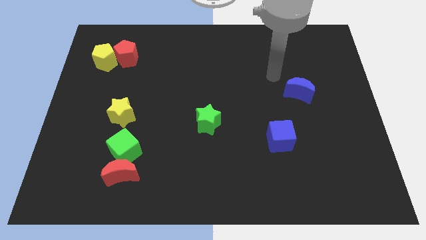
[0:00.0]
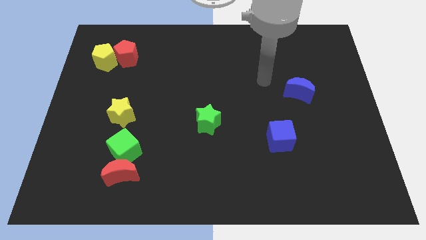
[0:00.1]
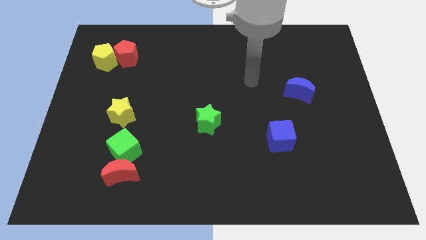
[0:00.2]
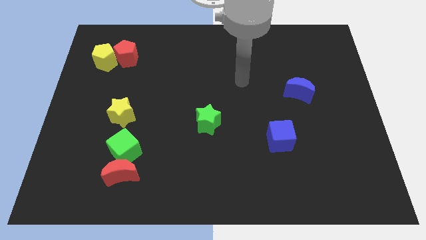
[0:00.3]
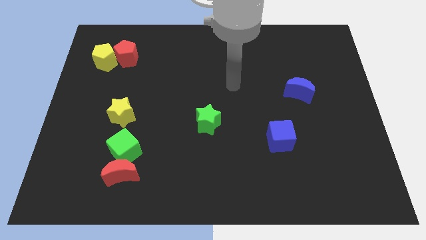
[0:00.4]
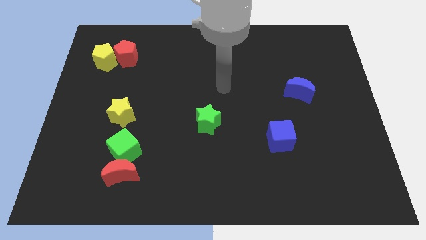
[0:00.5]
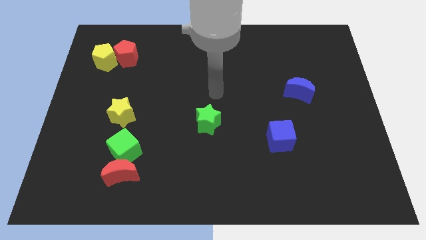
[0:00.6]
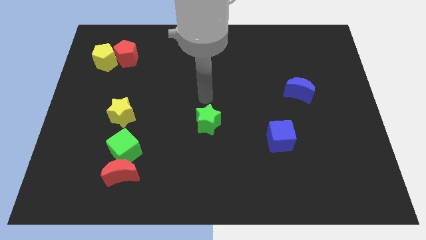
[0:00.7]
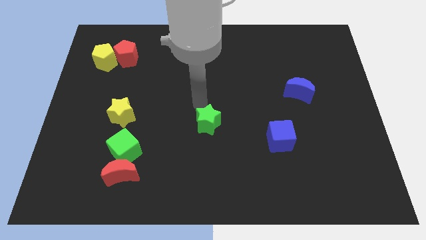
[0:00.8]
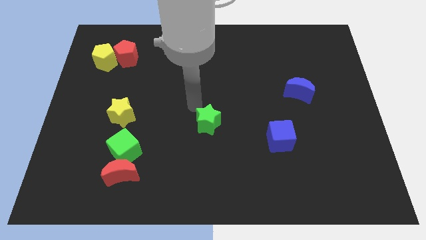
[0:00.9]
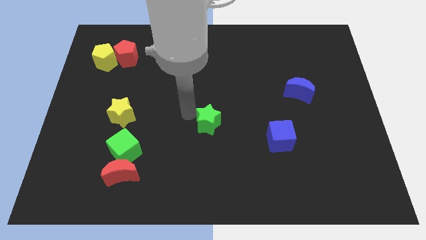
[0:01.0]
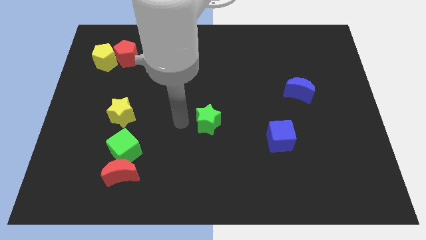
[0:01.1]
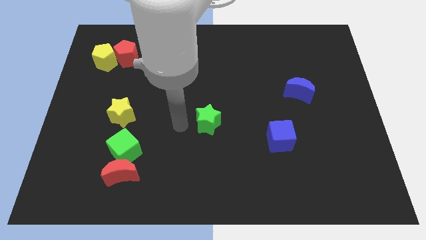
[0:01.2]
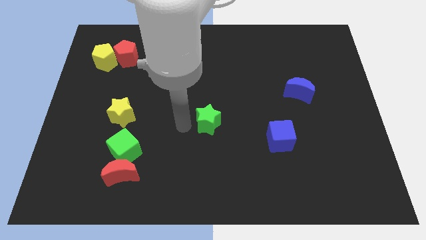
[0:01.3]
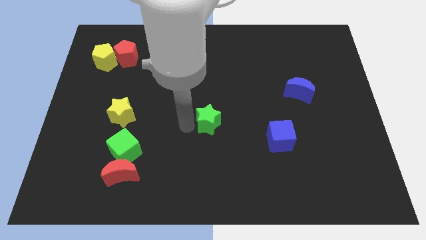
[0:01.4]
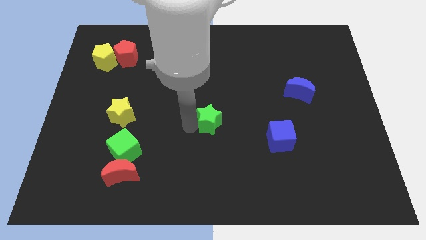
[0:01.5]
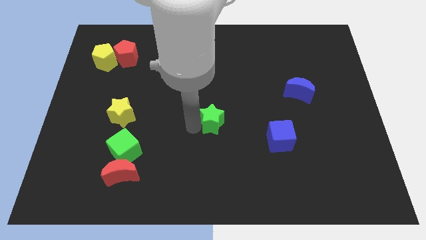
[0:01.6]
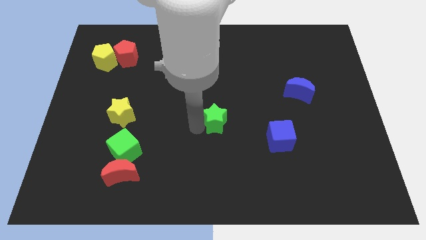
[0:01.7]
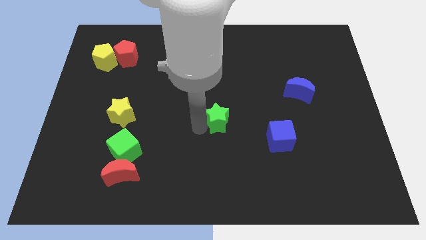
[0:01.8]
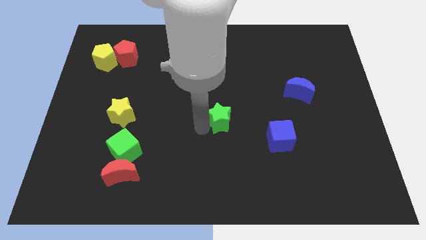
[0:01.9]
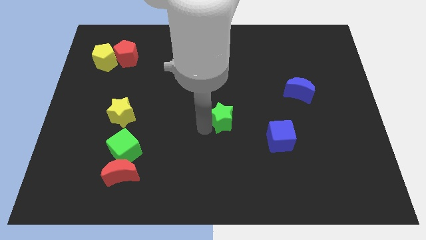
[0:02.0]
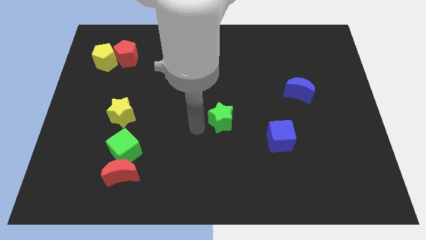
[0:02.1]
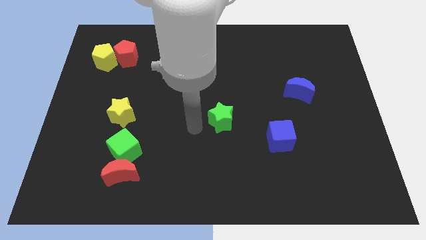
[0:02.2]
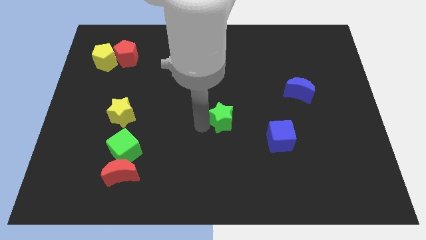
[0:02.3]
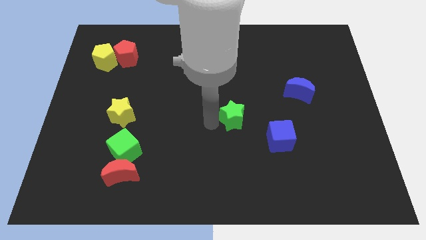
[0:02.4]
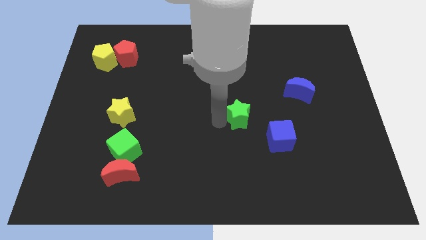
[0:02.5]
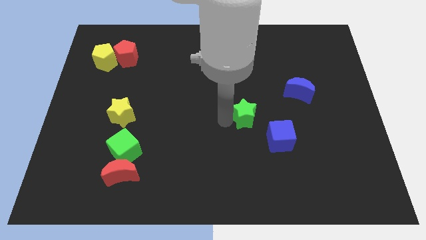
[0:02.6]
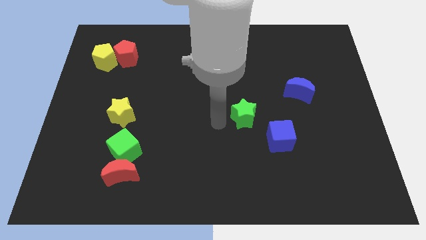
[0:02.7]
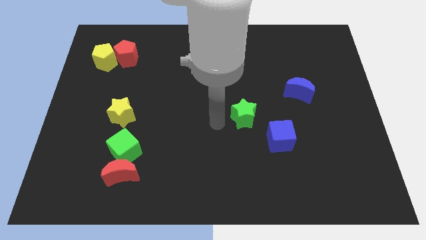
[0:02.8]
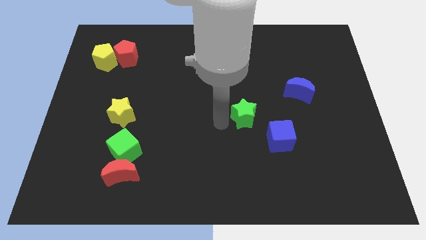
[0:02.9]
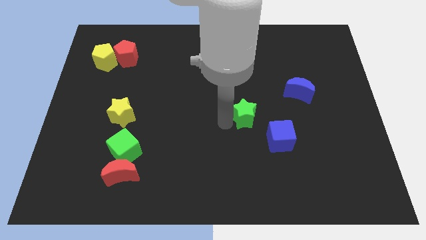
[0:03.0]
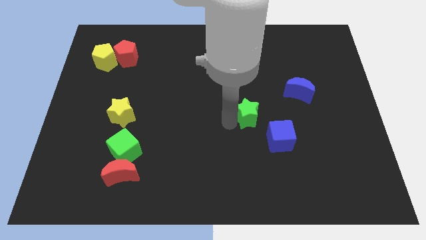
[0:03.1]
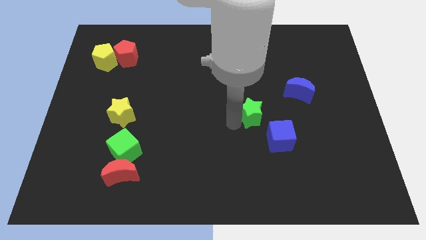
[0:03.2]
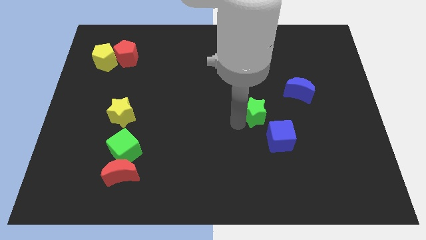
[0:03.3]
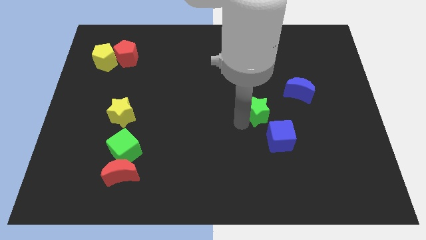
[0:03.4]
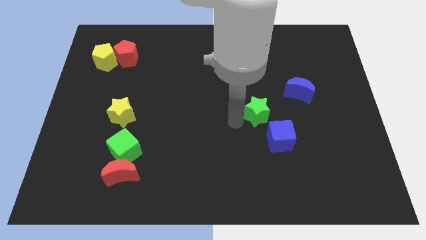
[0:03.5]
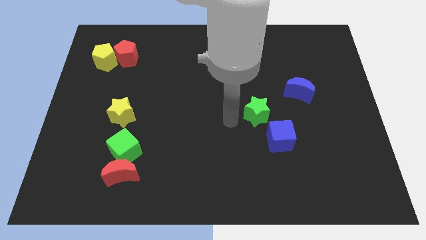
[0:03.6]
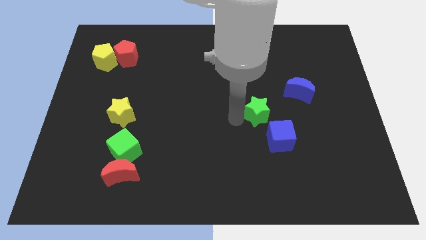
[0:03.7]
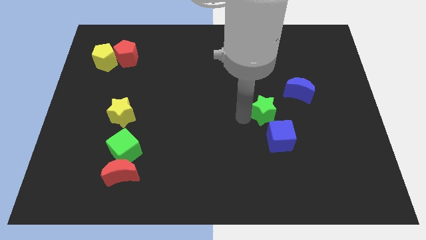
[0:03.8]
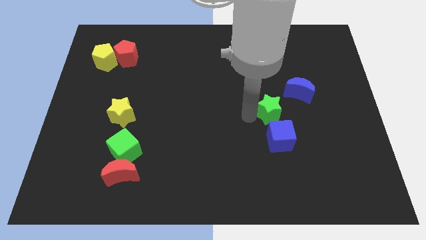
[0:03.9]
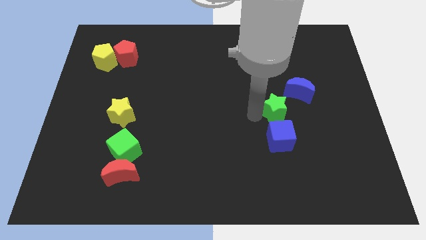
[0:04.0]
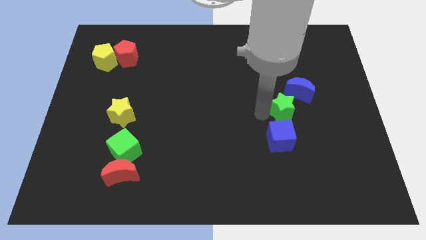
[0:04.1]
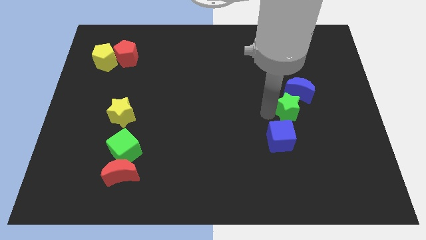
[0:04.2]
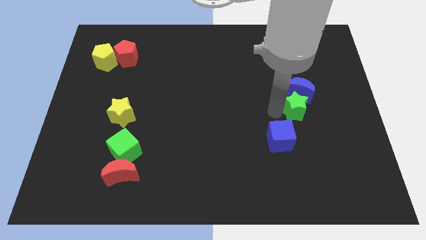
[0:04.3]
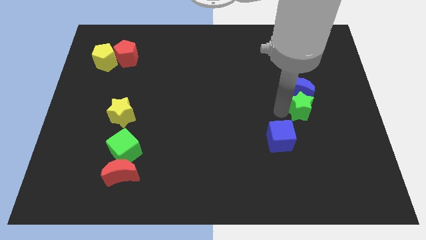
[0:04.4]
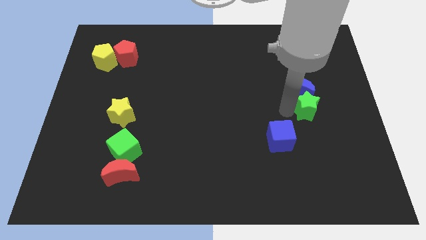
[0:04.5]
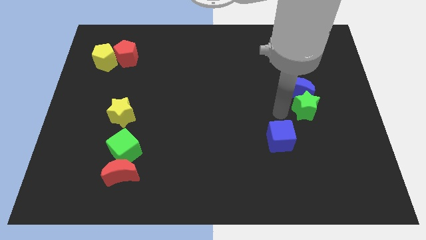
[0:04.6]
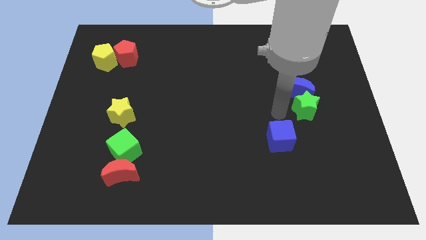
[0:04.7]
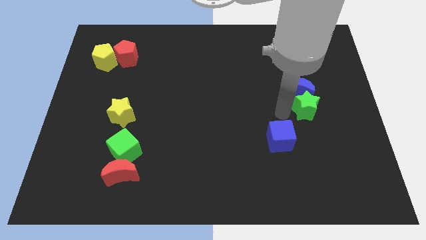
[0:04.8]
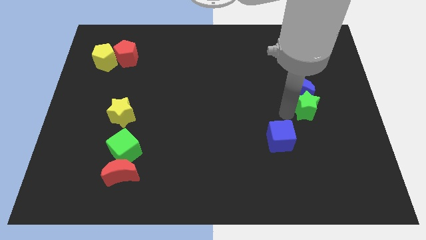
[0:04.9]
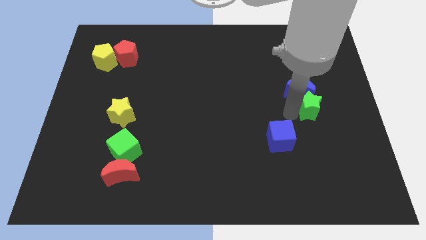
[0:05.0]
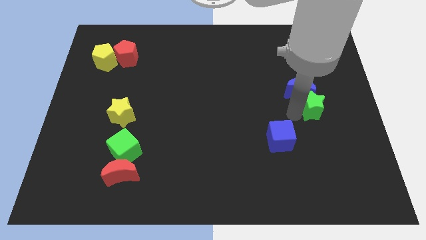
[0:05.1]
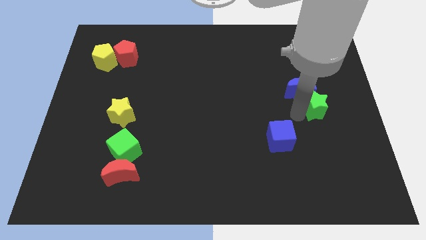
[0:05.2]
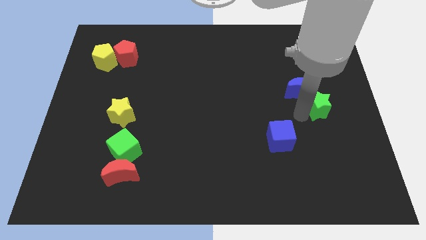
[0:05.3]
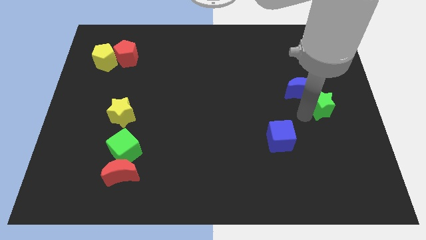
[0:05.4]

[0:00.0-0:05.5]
move the green star to the right side of the board

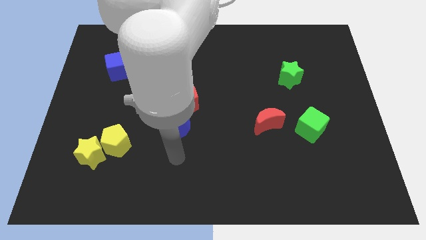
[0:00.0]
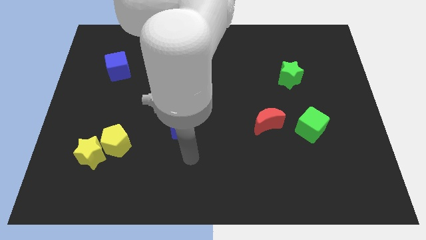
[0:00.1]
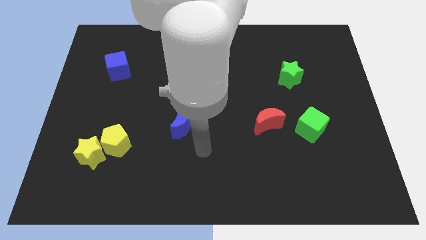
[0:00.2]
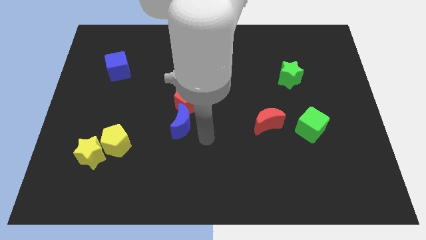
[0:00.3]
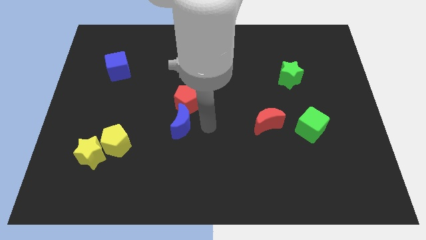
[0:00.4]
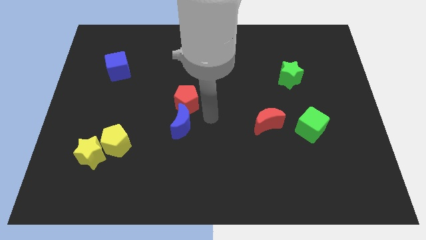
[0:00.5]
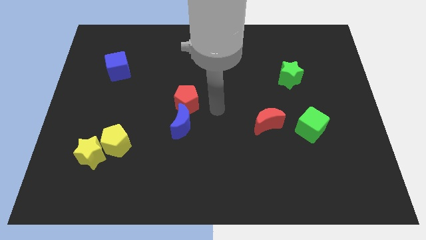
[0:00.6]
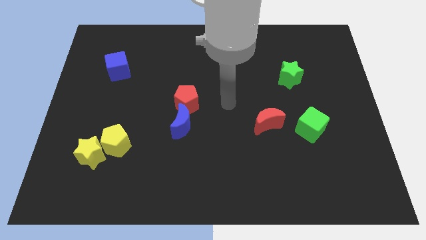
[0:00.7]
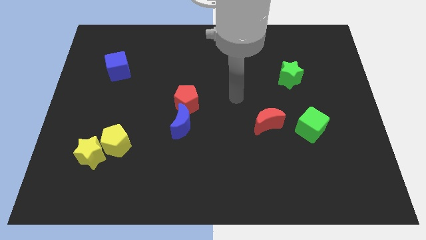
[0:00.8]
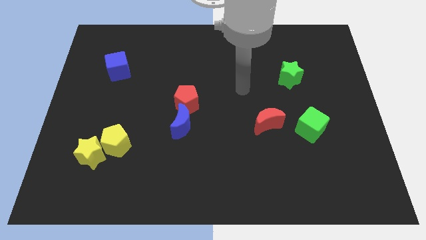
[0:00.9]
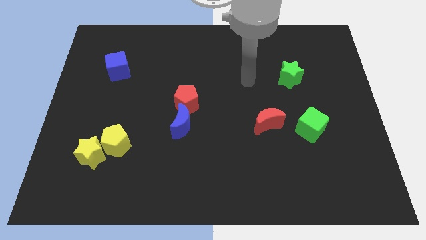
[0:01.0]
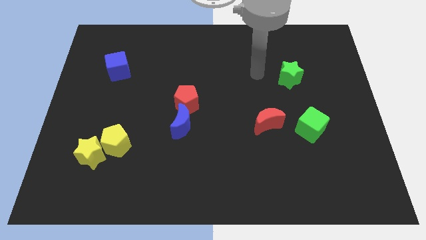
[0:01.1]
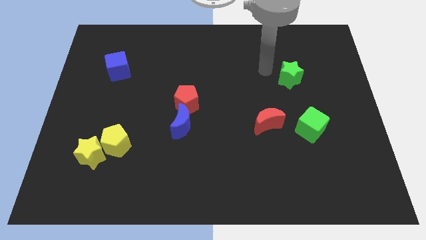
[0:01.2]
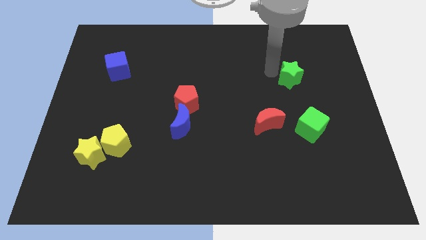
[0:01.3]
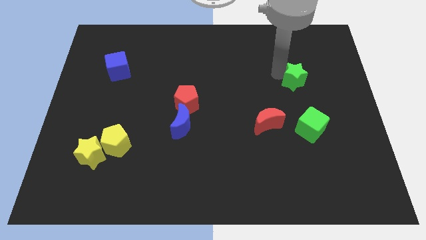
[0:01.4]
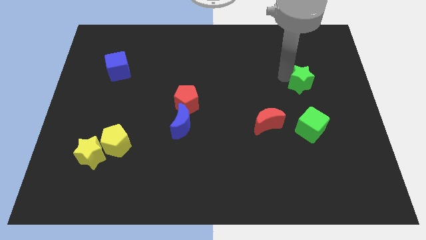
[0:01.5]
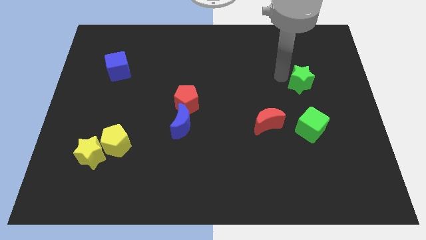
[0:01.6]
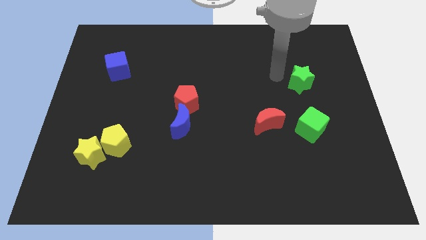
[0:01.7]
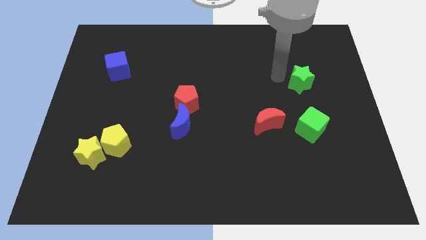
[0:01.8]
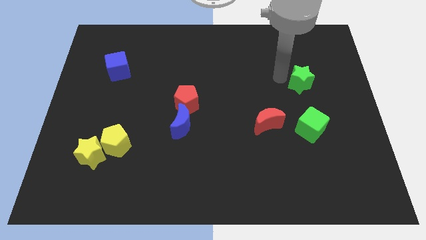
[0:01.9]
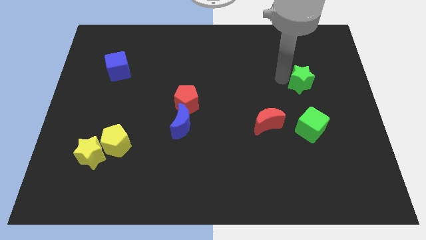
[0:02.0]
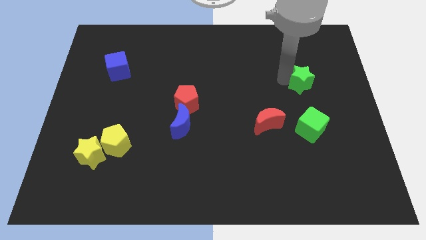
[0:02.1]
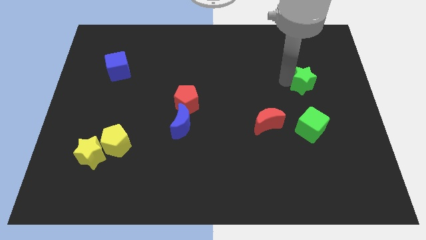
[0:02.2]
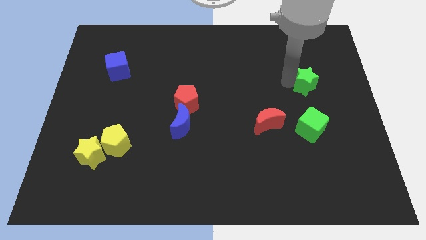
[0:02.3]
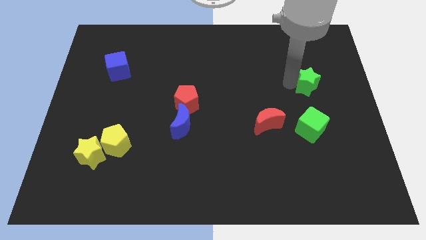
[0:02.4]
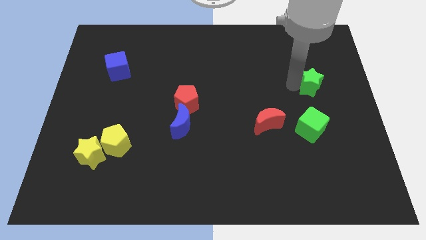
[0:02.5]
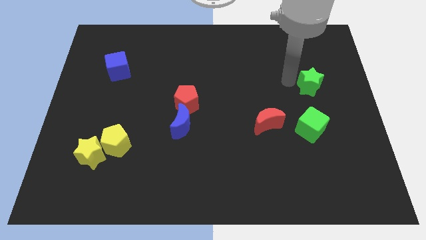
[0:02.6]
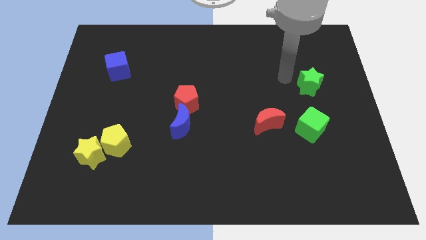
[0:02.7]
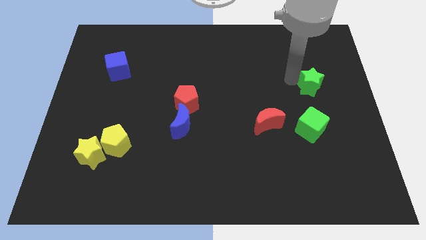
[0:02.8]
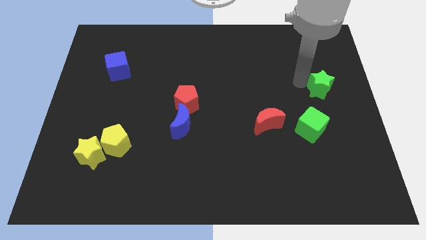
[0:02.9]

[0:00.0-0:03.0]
slide the green star to the right side
